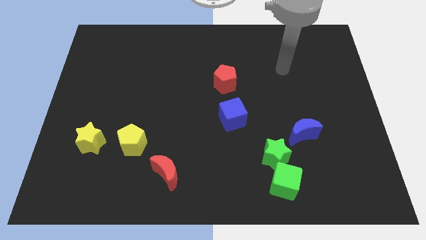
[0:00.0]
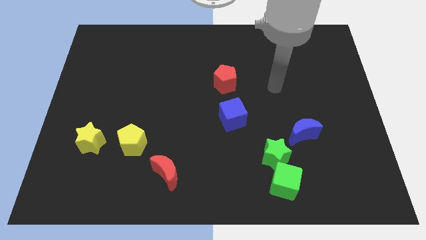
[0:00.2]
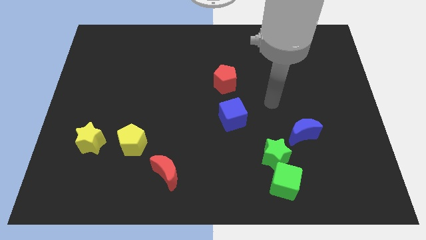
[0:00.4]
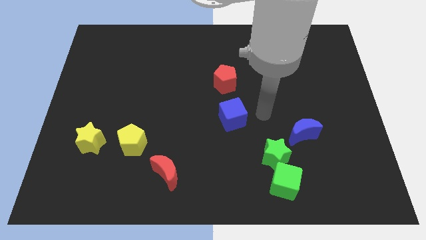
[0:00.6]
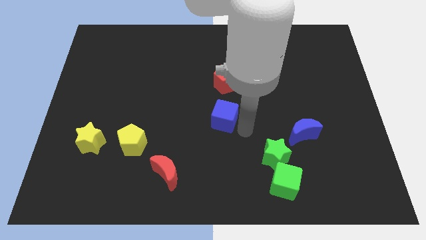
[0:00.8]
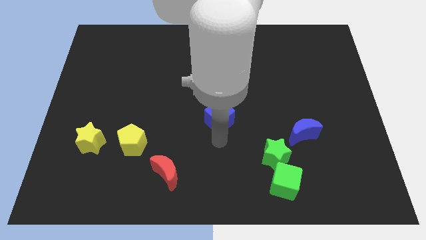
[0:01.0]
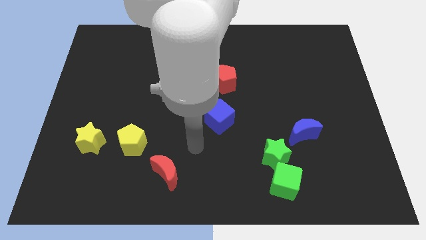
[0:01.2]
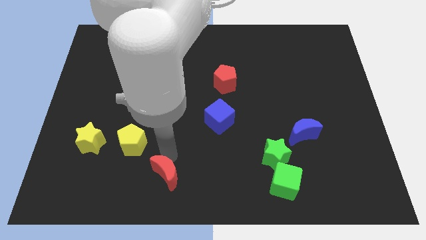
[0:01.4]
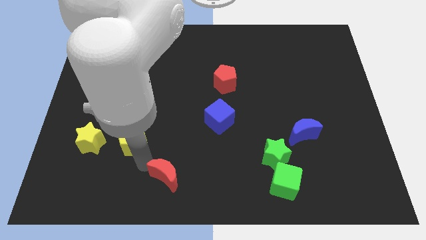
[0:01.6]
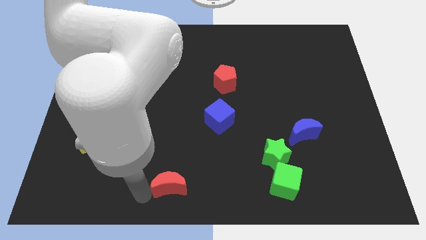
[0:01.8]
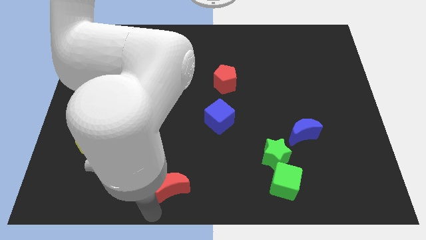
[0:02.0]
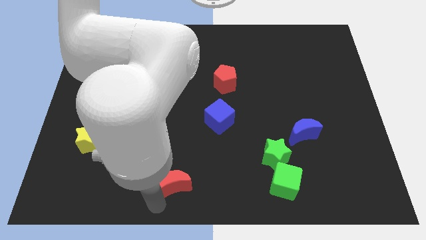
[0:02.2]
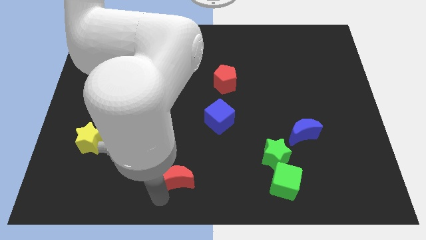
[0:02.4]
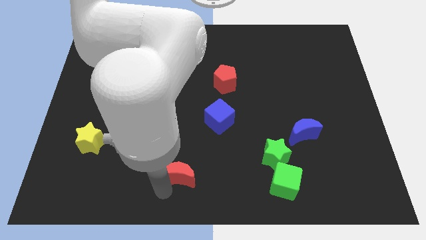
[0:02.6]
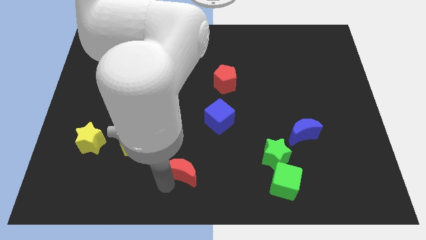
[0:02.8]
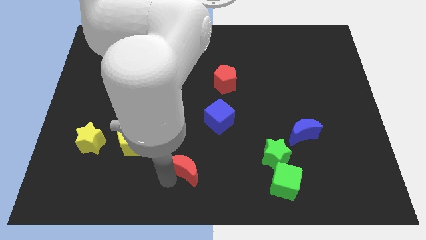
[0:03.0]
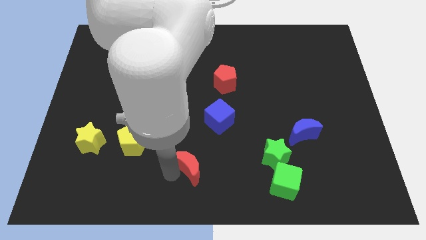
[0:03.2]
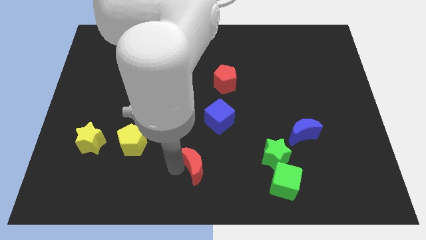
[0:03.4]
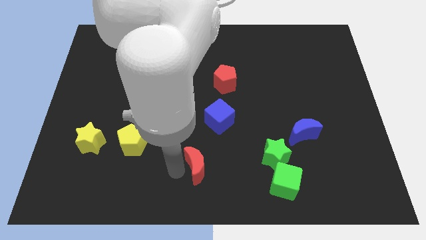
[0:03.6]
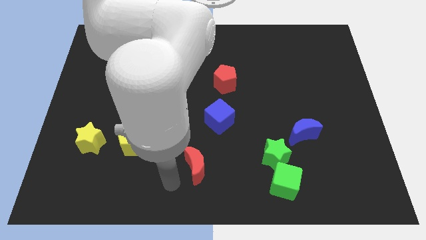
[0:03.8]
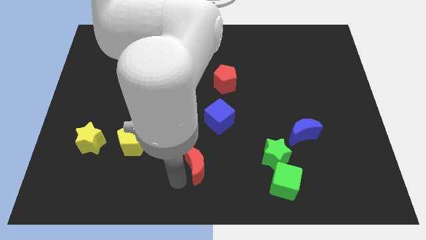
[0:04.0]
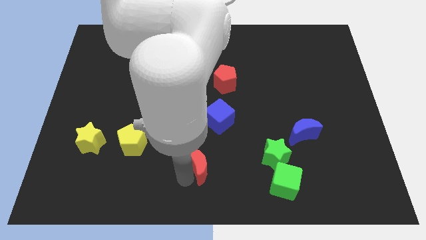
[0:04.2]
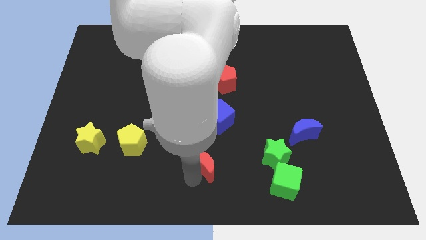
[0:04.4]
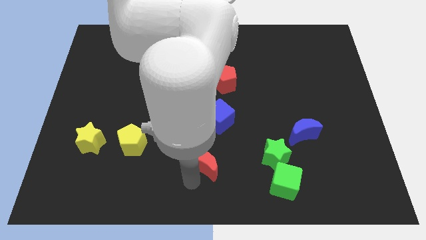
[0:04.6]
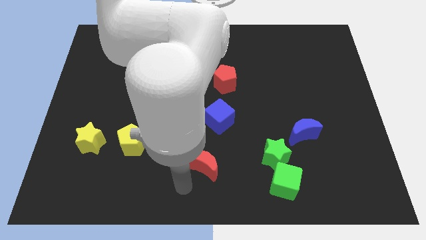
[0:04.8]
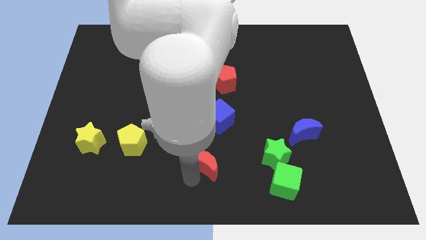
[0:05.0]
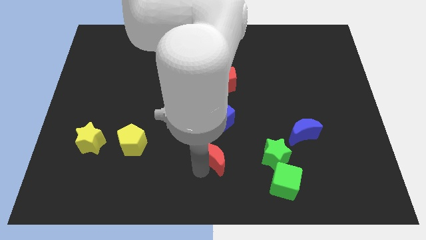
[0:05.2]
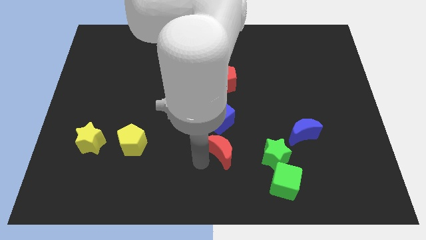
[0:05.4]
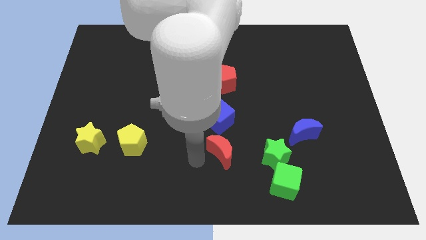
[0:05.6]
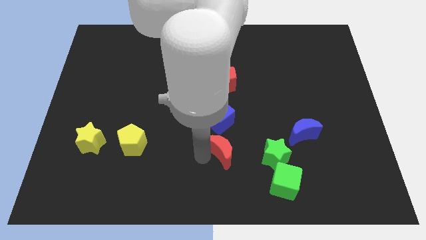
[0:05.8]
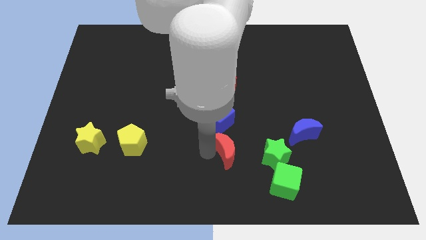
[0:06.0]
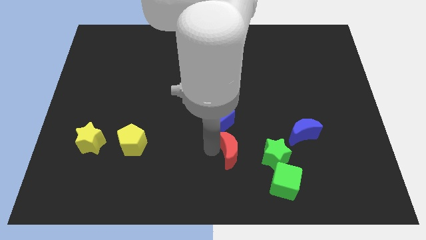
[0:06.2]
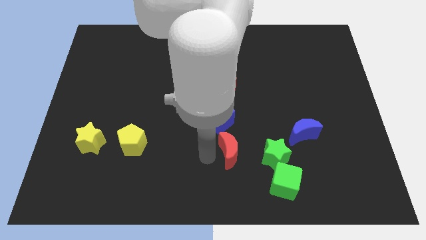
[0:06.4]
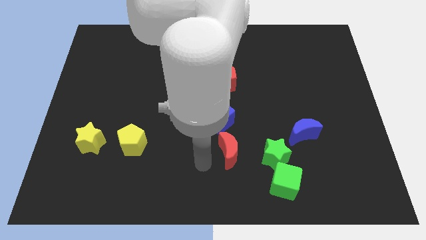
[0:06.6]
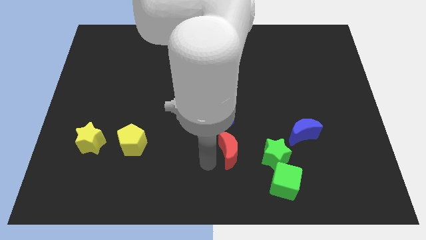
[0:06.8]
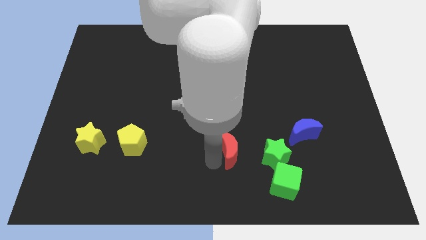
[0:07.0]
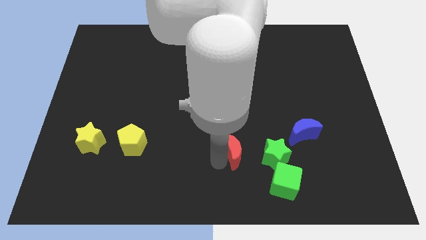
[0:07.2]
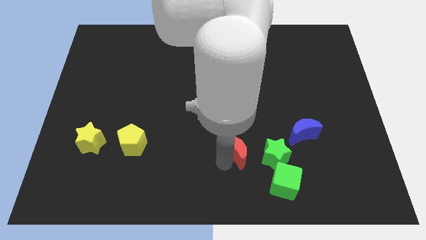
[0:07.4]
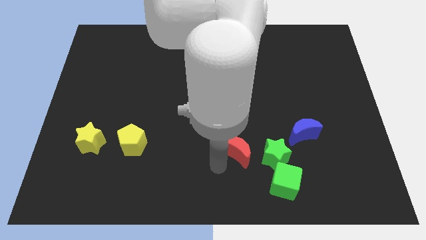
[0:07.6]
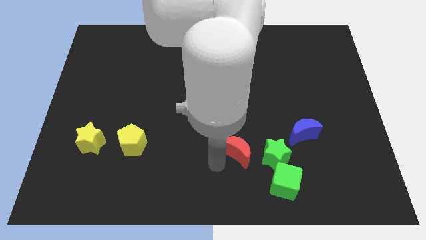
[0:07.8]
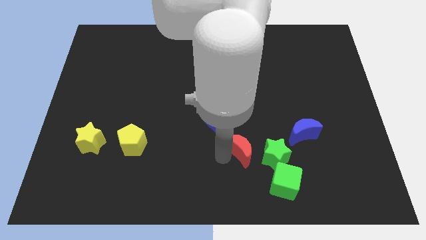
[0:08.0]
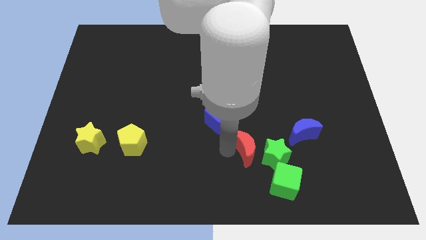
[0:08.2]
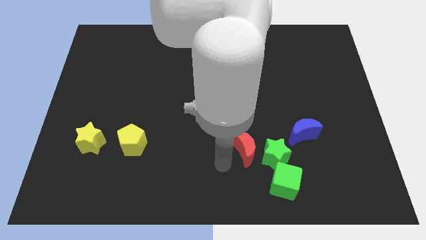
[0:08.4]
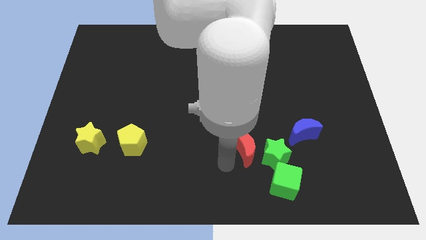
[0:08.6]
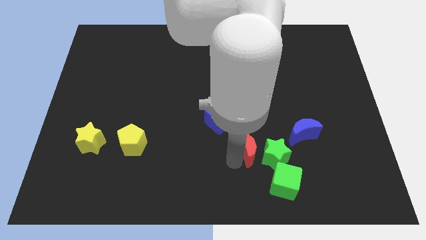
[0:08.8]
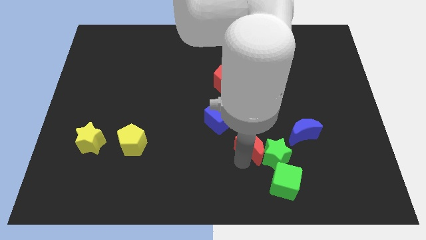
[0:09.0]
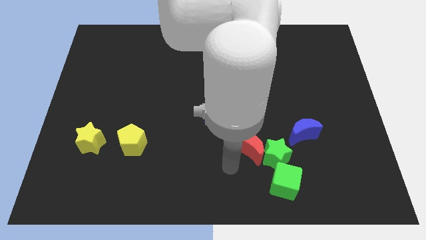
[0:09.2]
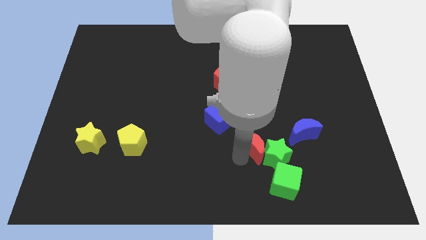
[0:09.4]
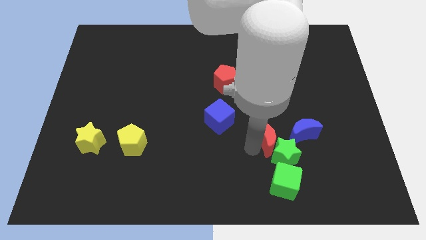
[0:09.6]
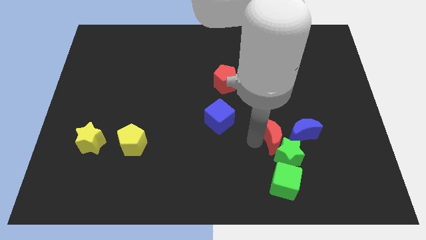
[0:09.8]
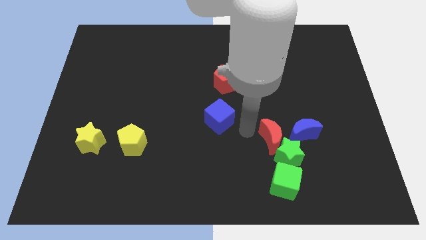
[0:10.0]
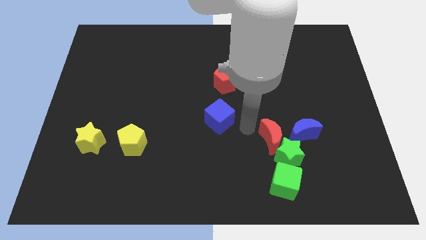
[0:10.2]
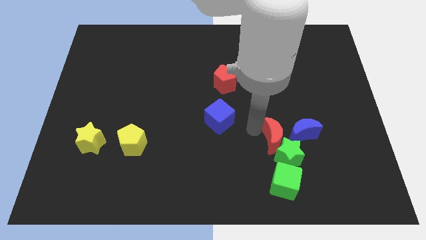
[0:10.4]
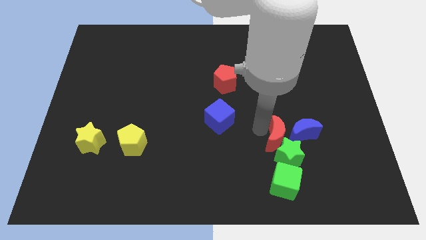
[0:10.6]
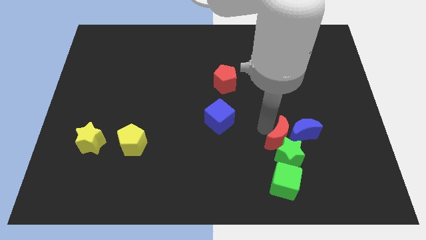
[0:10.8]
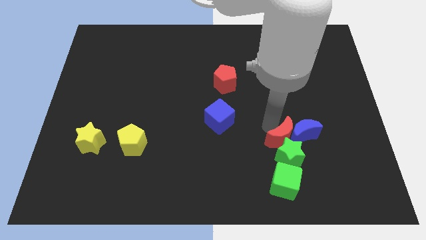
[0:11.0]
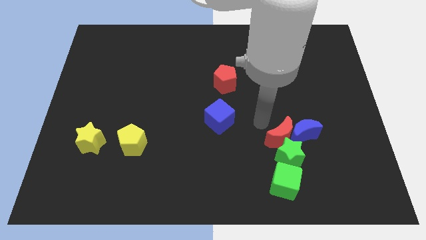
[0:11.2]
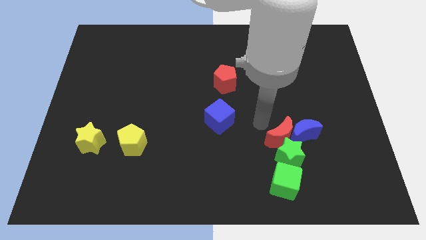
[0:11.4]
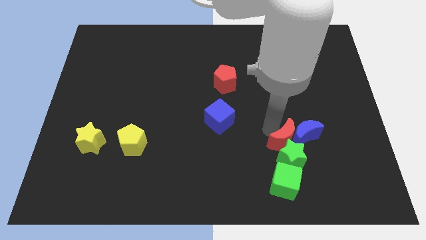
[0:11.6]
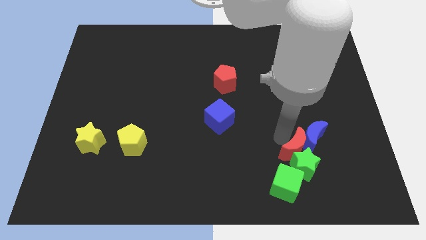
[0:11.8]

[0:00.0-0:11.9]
push the red moon to the top right of the green cube

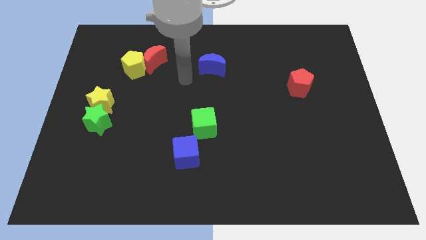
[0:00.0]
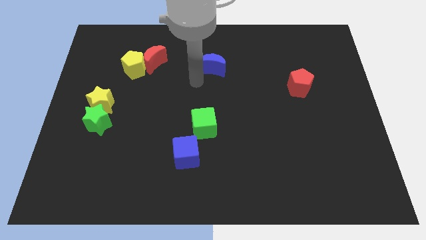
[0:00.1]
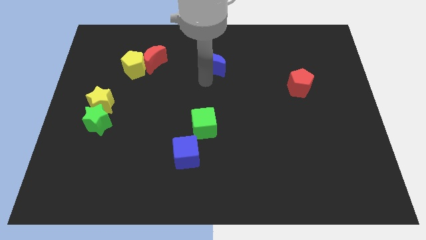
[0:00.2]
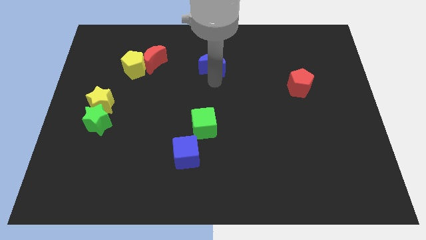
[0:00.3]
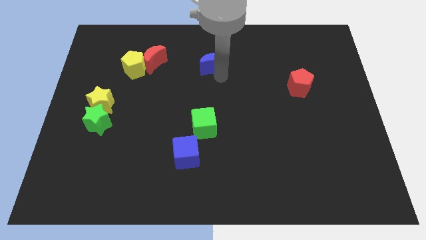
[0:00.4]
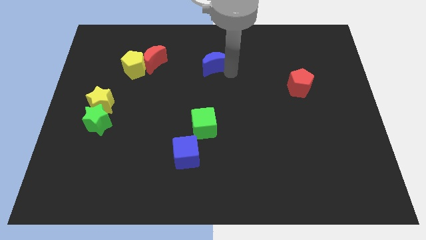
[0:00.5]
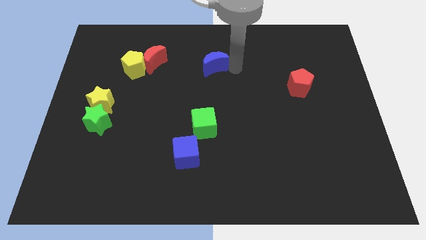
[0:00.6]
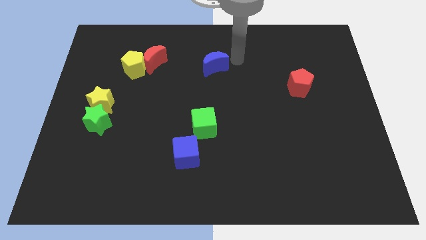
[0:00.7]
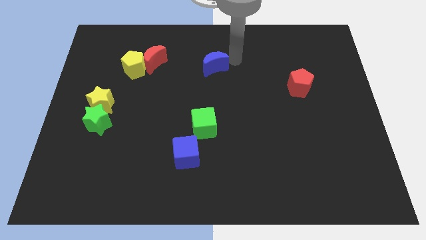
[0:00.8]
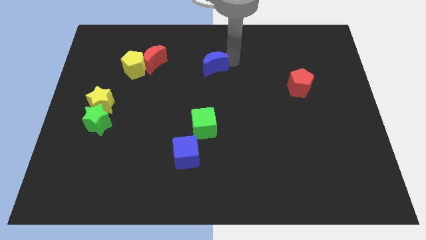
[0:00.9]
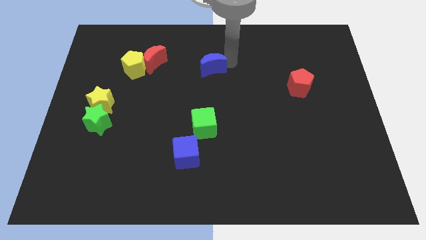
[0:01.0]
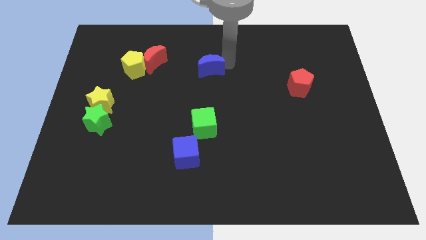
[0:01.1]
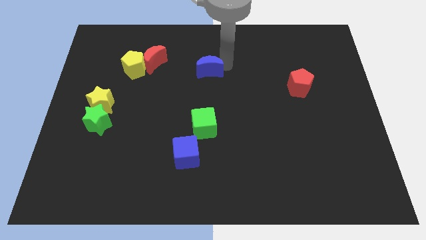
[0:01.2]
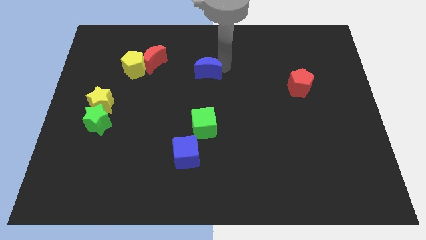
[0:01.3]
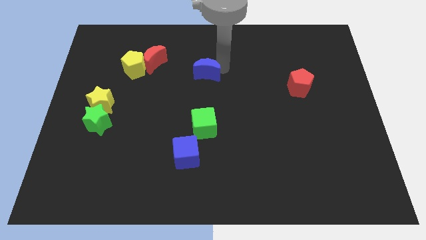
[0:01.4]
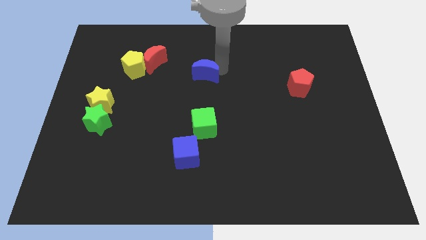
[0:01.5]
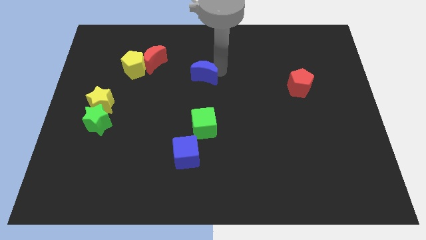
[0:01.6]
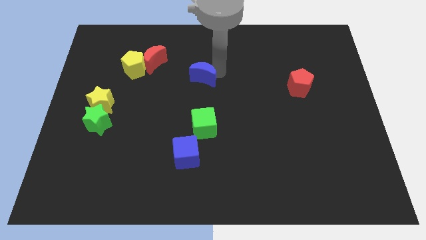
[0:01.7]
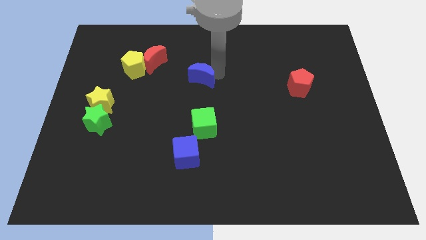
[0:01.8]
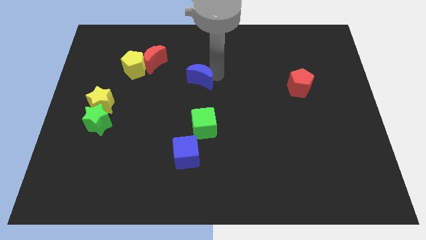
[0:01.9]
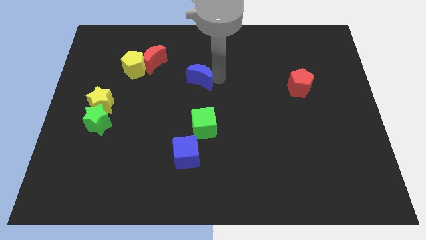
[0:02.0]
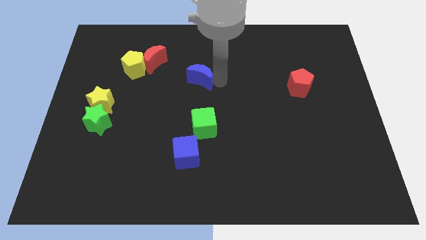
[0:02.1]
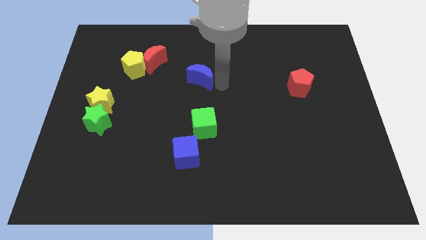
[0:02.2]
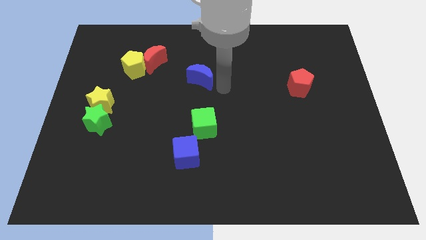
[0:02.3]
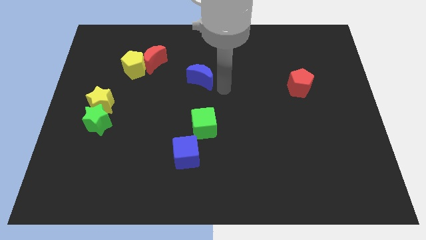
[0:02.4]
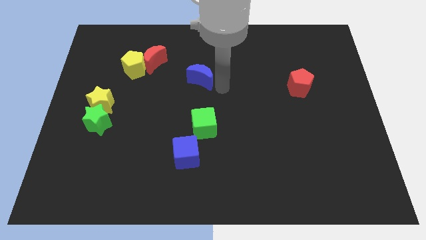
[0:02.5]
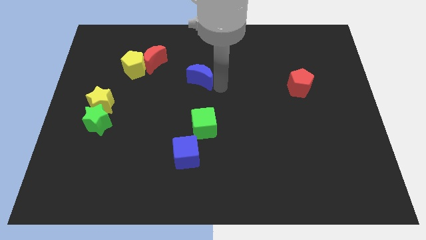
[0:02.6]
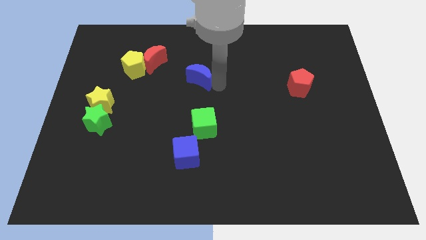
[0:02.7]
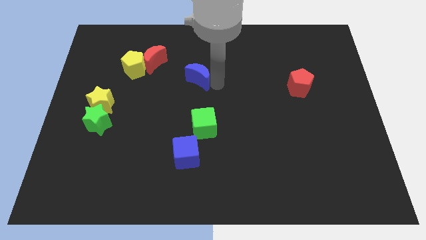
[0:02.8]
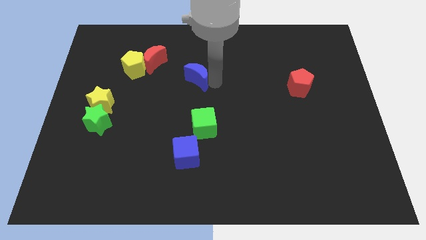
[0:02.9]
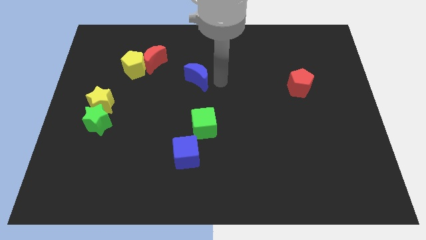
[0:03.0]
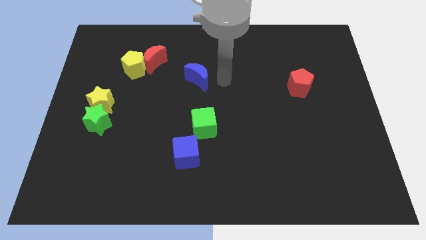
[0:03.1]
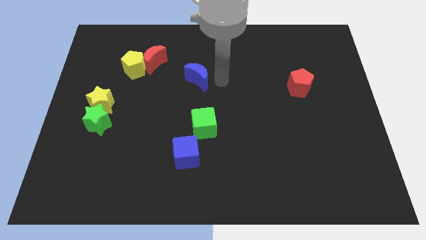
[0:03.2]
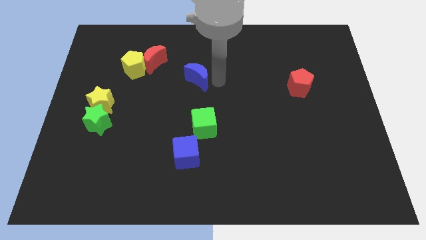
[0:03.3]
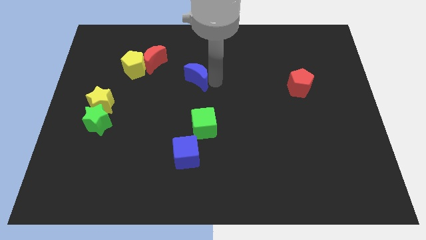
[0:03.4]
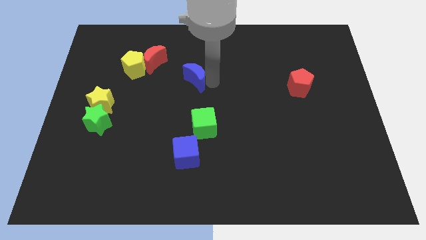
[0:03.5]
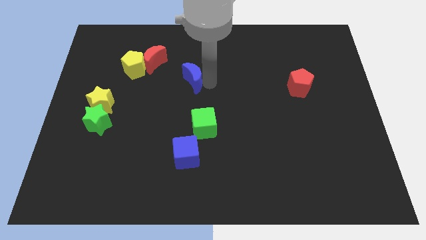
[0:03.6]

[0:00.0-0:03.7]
put the blue moon to the bottom right of the red moon
